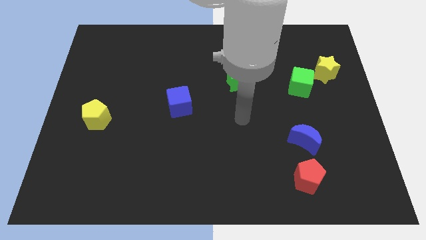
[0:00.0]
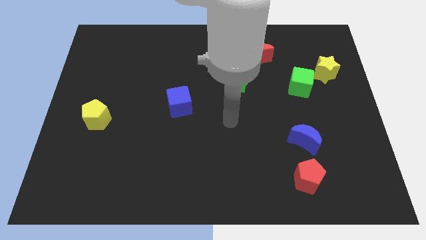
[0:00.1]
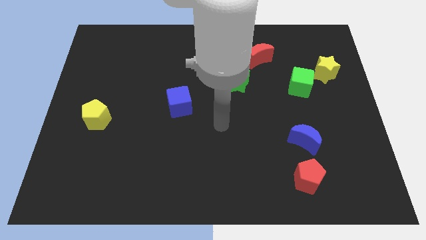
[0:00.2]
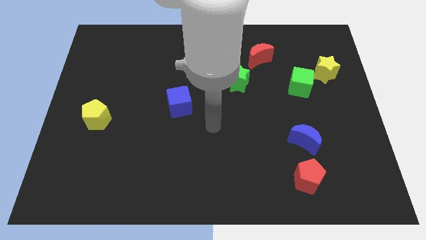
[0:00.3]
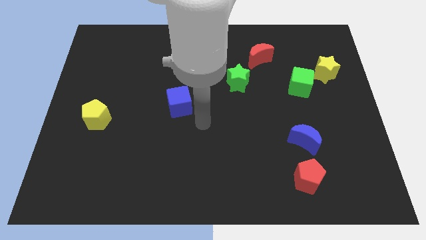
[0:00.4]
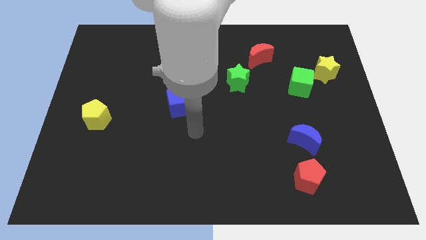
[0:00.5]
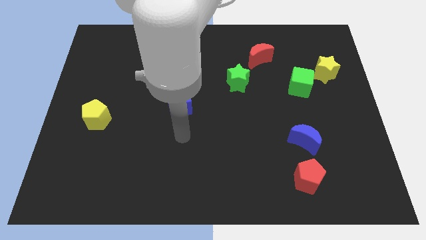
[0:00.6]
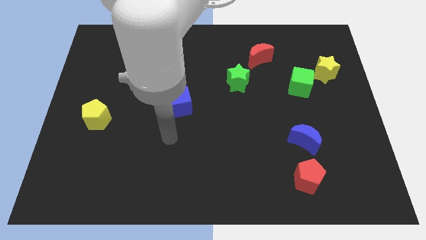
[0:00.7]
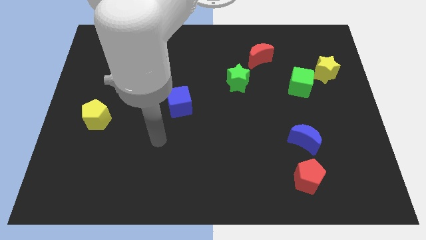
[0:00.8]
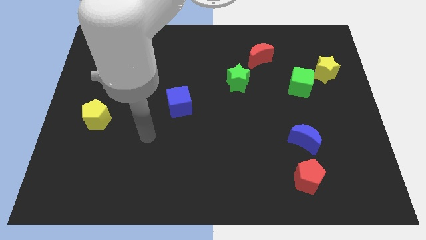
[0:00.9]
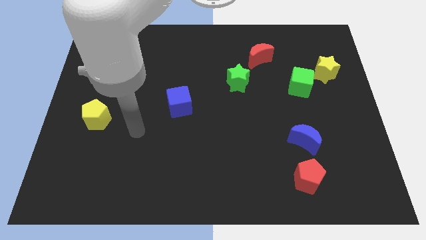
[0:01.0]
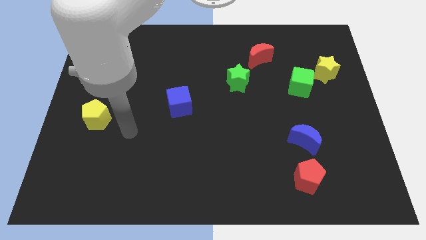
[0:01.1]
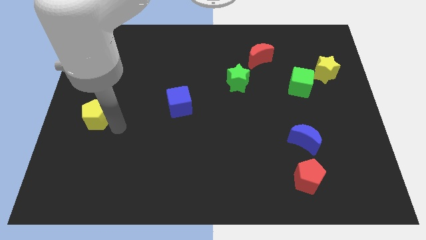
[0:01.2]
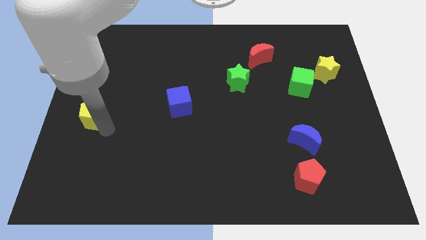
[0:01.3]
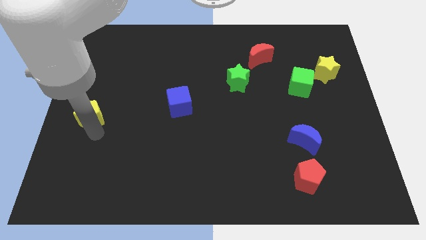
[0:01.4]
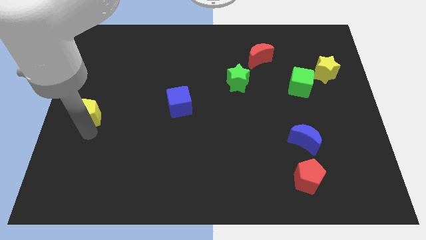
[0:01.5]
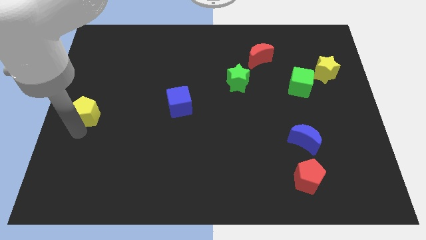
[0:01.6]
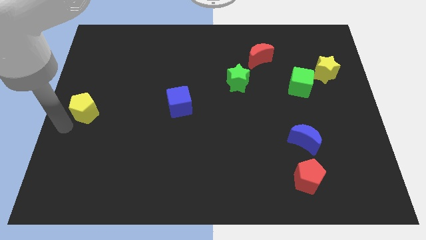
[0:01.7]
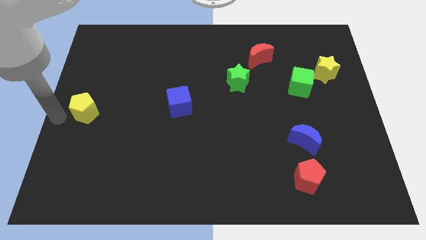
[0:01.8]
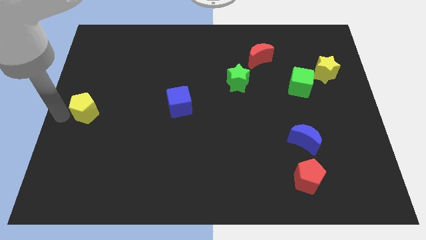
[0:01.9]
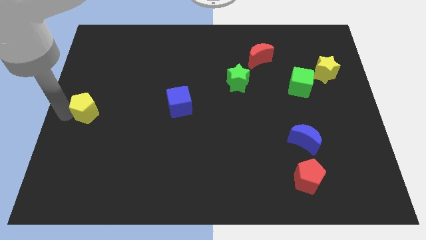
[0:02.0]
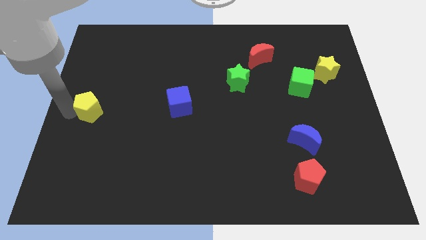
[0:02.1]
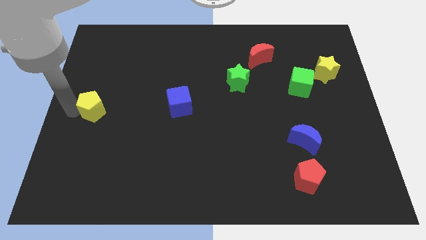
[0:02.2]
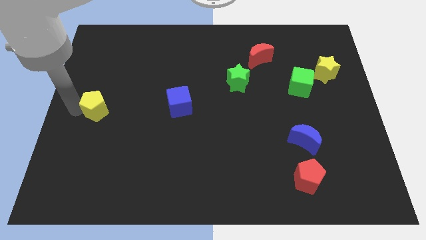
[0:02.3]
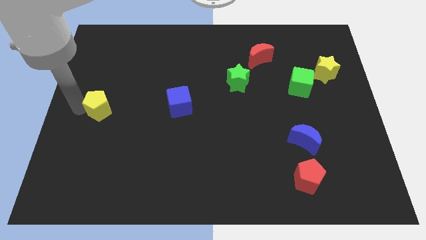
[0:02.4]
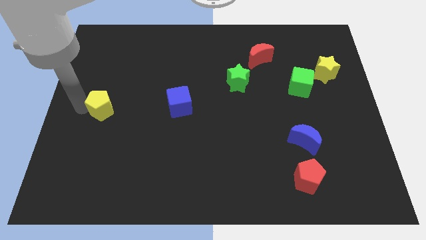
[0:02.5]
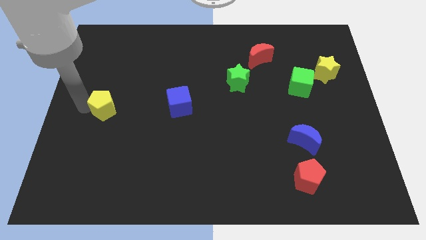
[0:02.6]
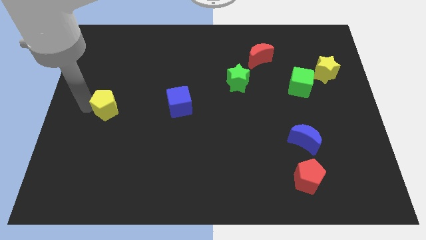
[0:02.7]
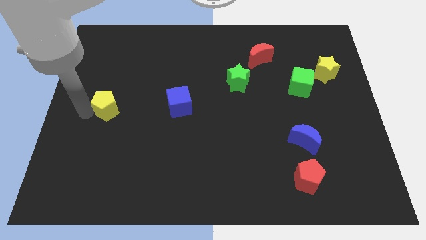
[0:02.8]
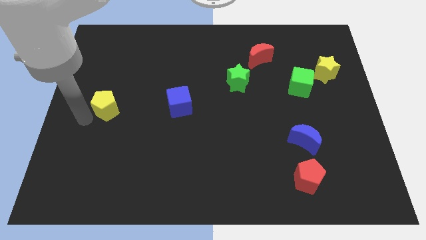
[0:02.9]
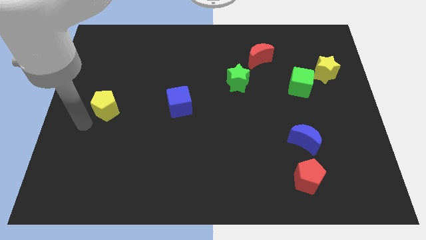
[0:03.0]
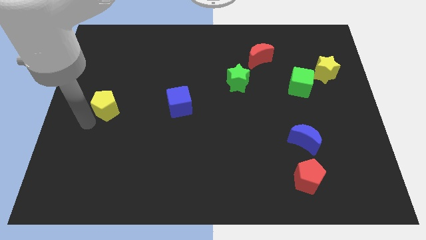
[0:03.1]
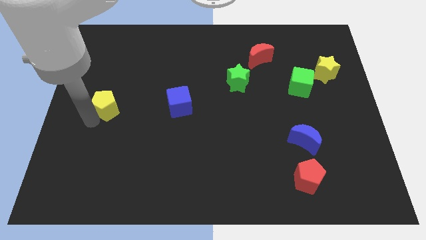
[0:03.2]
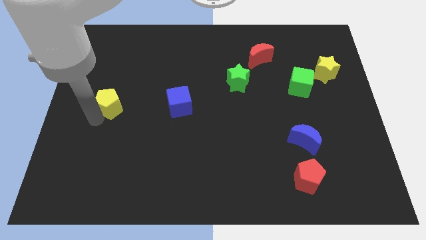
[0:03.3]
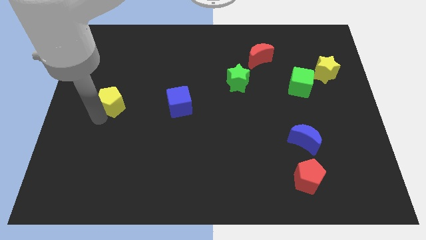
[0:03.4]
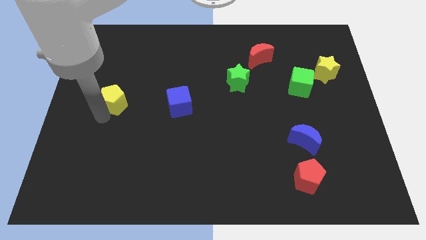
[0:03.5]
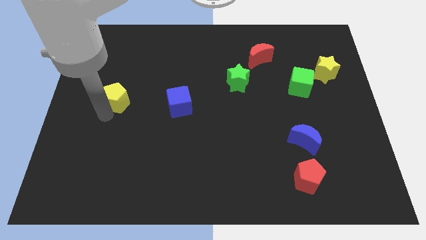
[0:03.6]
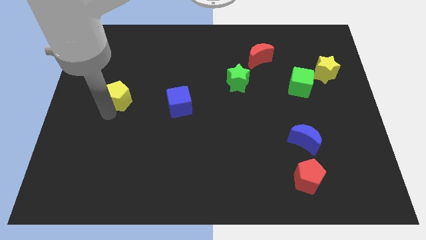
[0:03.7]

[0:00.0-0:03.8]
slightly slide the yellow pentagon upwards and then to the right

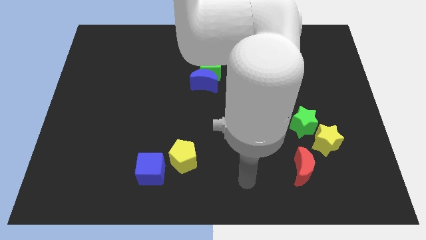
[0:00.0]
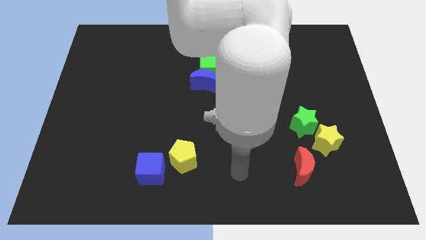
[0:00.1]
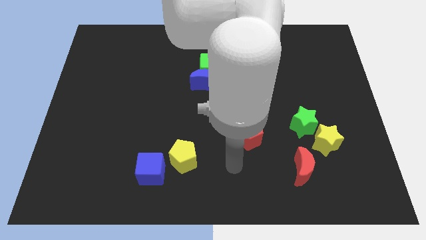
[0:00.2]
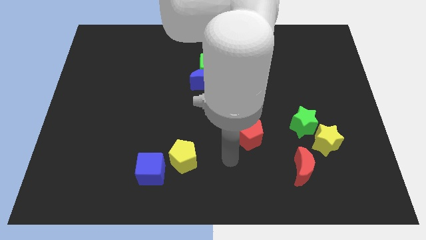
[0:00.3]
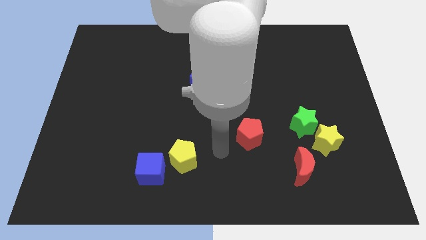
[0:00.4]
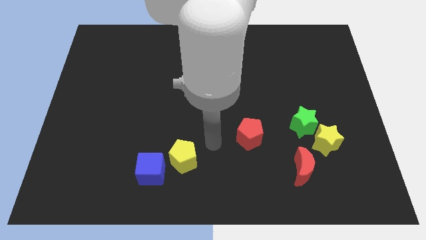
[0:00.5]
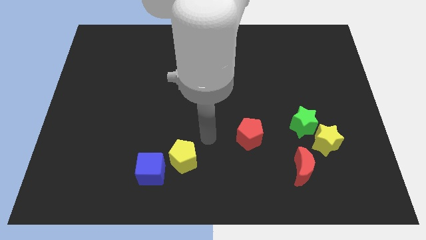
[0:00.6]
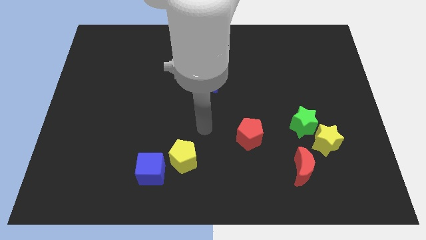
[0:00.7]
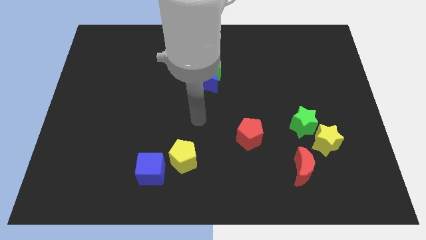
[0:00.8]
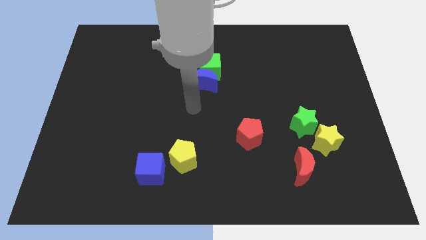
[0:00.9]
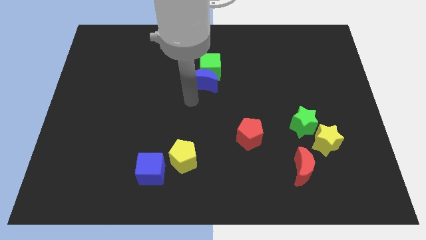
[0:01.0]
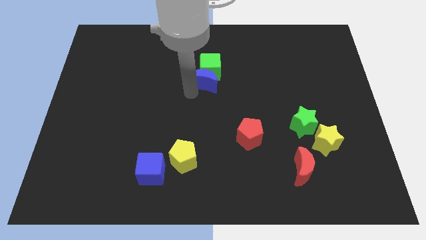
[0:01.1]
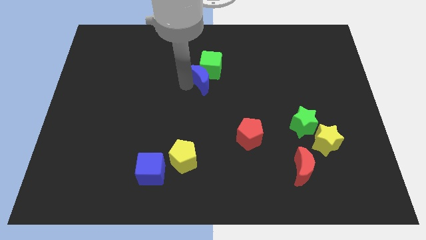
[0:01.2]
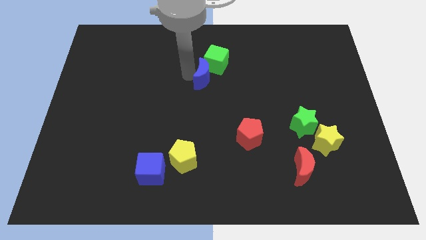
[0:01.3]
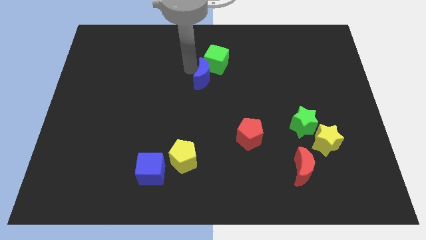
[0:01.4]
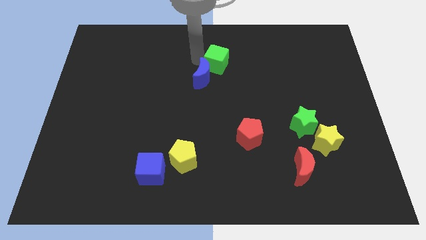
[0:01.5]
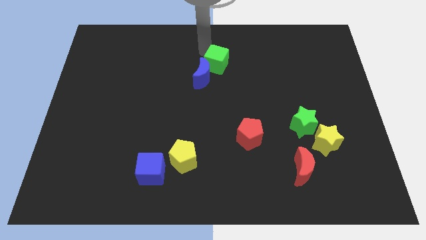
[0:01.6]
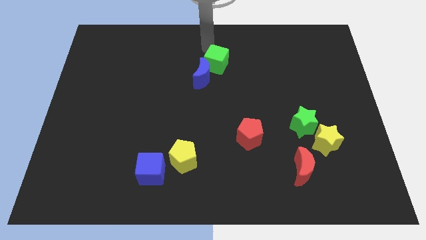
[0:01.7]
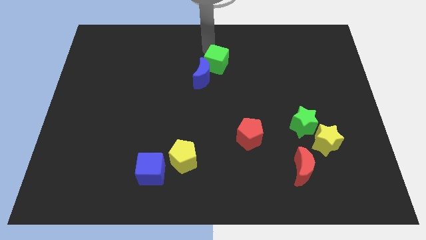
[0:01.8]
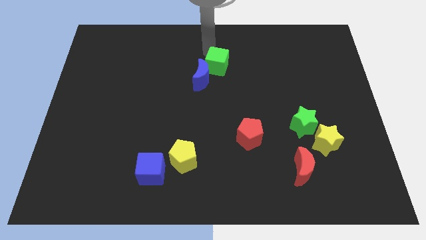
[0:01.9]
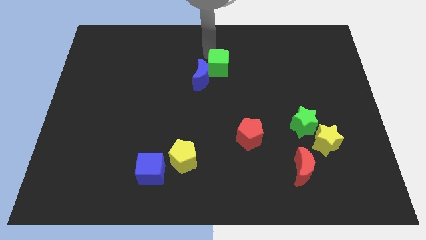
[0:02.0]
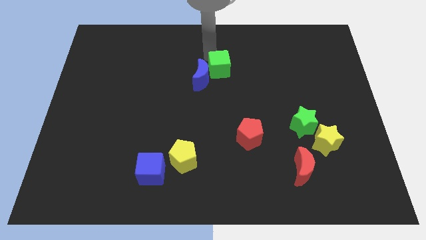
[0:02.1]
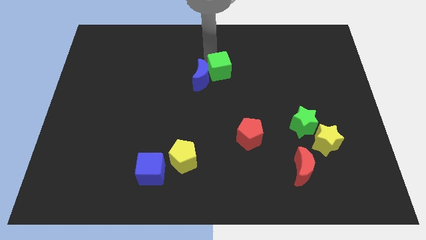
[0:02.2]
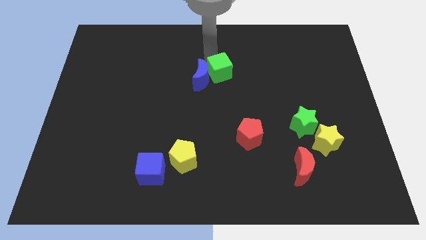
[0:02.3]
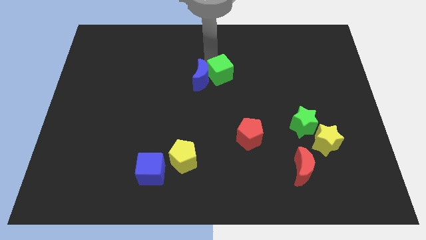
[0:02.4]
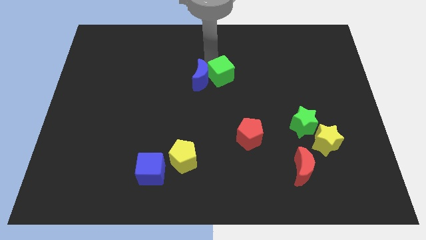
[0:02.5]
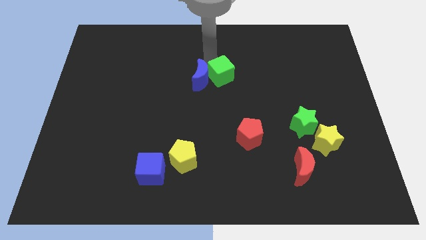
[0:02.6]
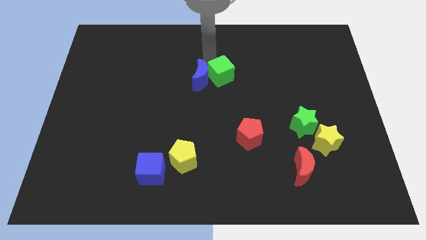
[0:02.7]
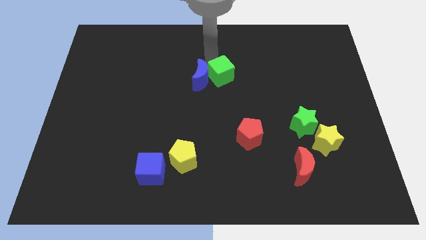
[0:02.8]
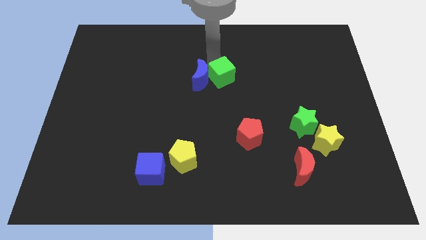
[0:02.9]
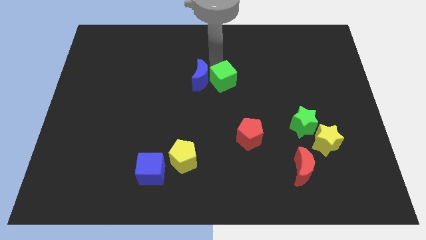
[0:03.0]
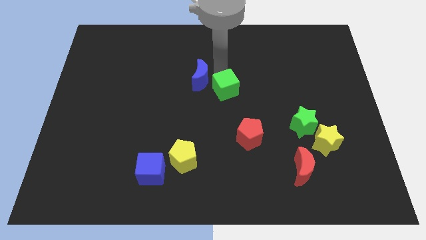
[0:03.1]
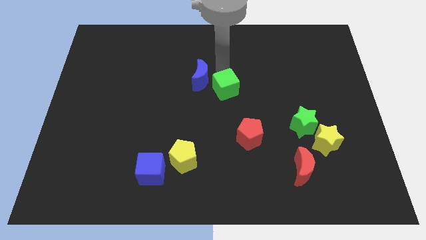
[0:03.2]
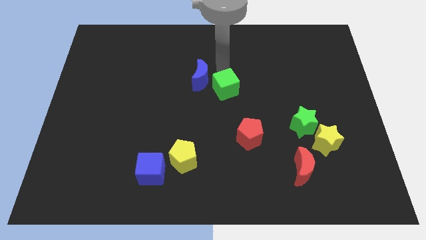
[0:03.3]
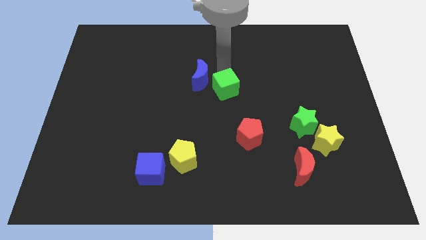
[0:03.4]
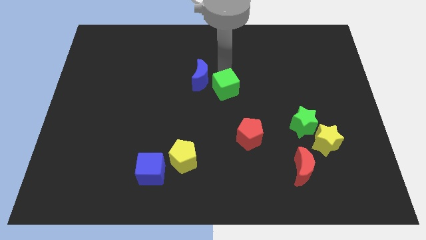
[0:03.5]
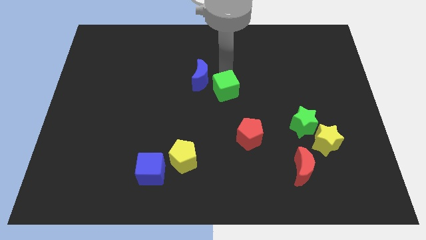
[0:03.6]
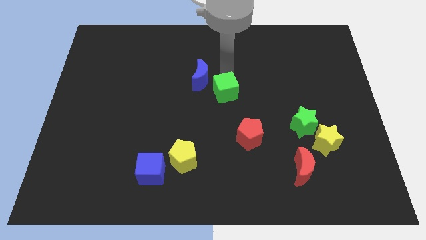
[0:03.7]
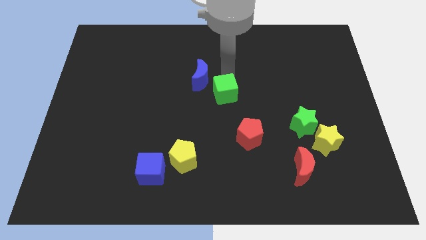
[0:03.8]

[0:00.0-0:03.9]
slide the green cube somewhat down

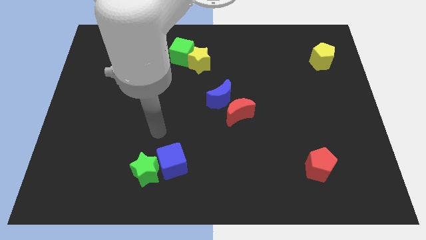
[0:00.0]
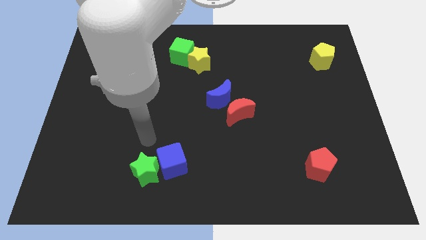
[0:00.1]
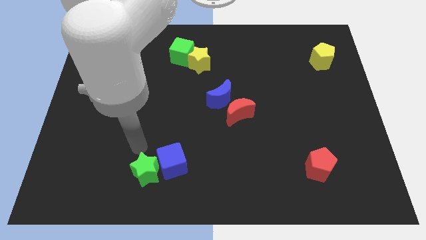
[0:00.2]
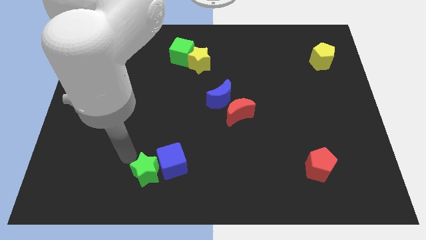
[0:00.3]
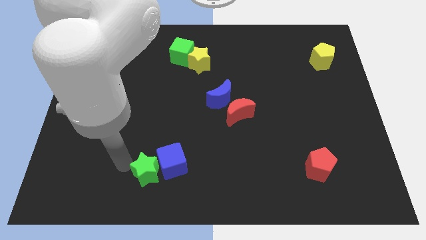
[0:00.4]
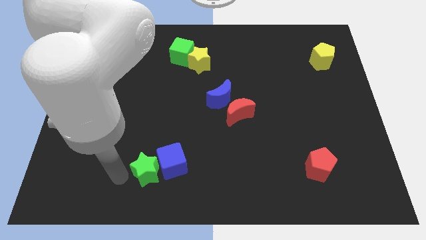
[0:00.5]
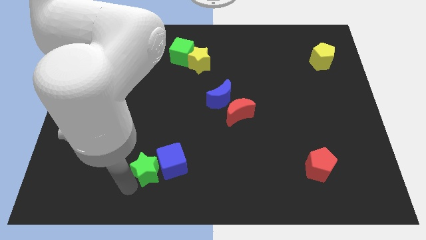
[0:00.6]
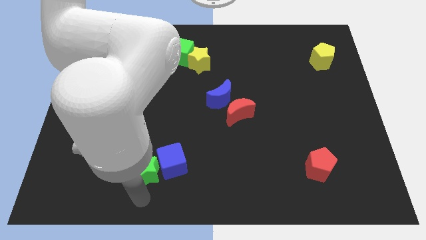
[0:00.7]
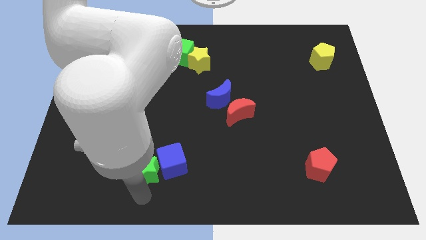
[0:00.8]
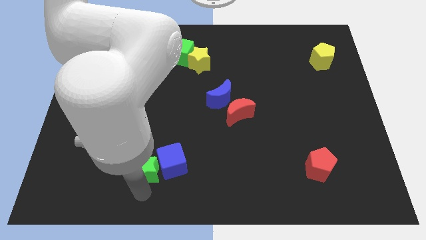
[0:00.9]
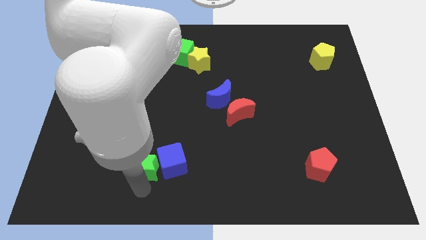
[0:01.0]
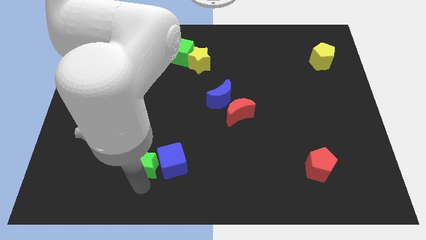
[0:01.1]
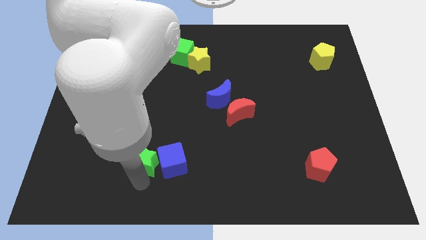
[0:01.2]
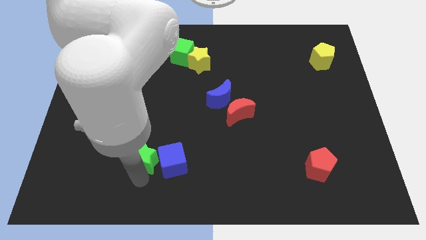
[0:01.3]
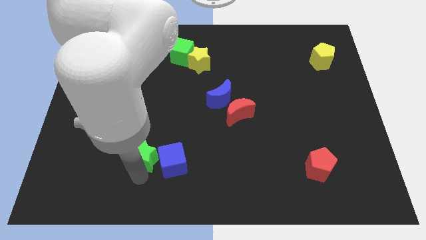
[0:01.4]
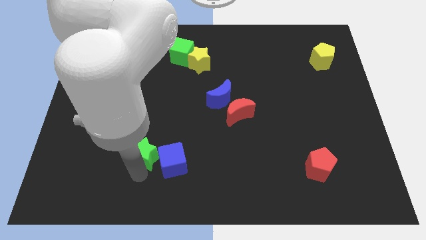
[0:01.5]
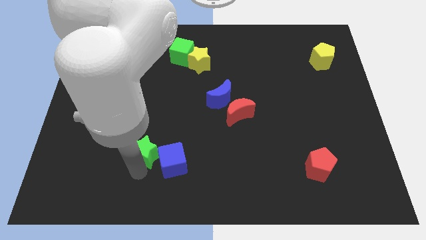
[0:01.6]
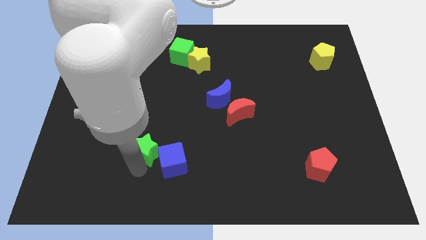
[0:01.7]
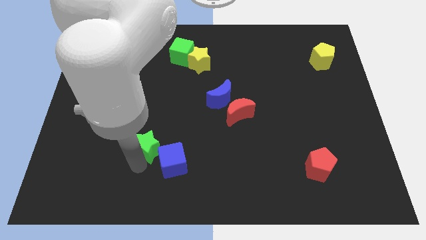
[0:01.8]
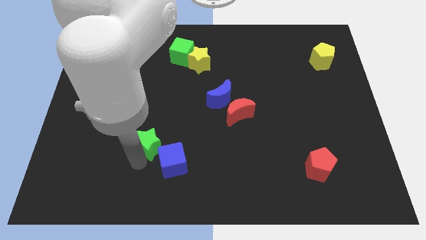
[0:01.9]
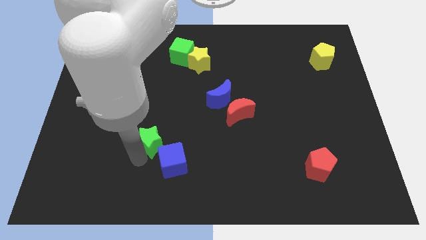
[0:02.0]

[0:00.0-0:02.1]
slightly push the green star upwards
